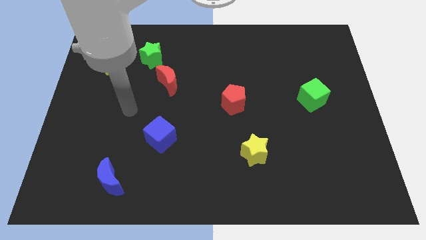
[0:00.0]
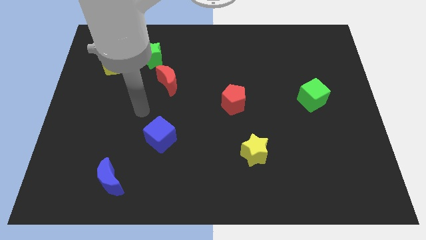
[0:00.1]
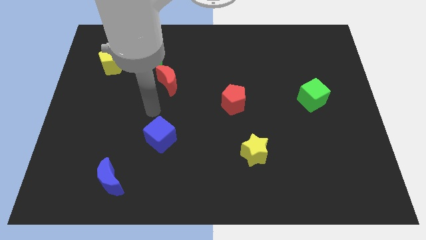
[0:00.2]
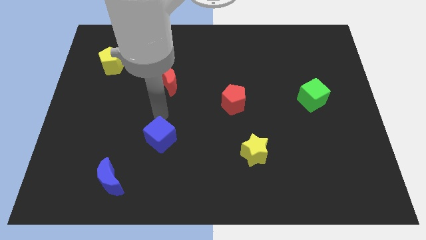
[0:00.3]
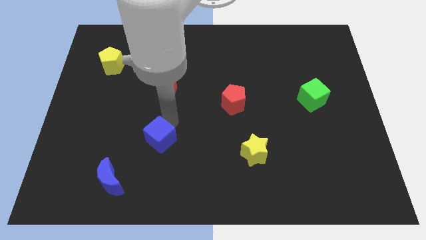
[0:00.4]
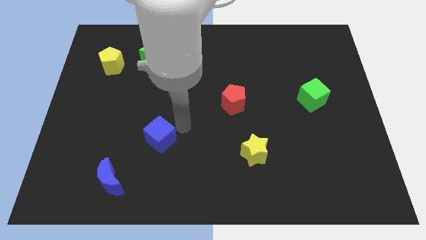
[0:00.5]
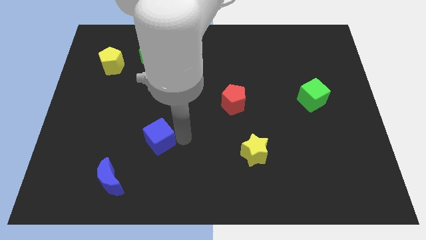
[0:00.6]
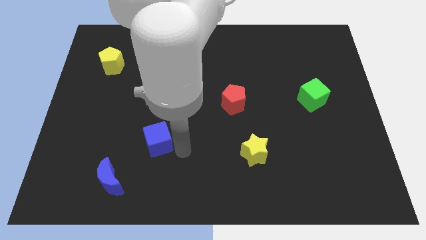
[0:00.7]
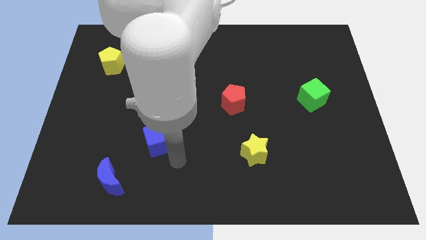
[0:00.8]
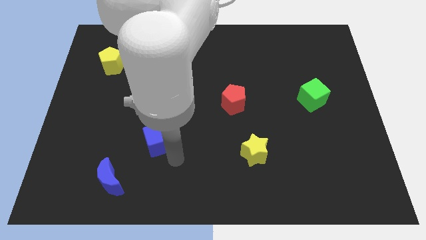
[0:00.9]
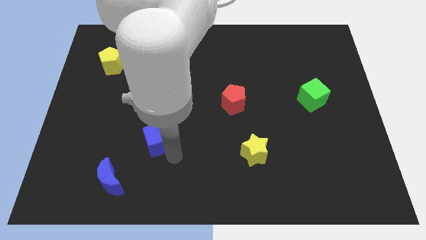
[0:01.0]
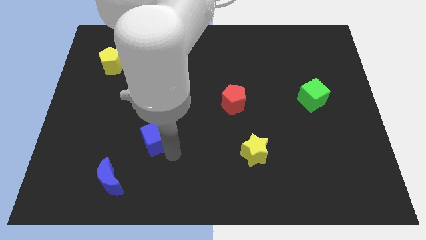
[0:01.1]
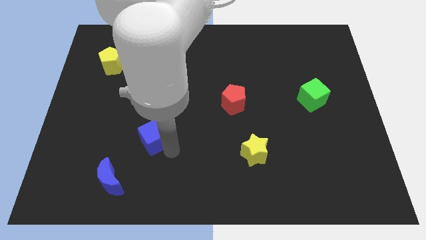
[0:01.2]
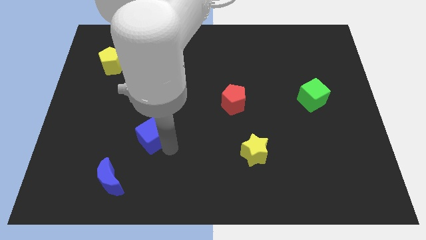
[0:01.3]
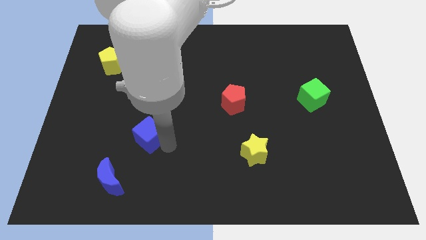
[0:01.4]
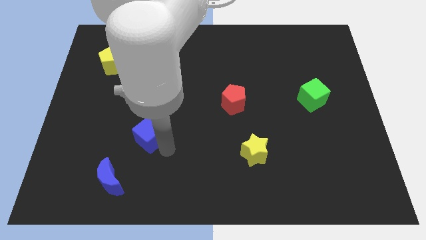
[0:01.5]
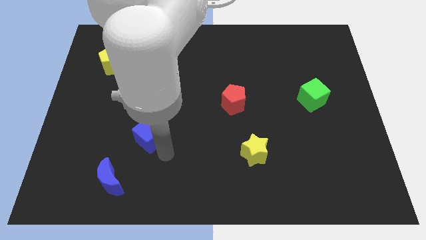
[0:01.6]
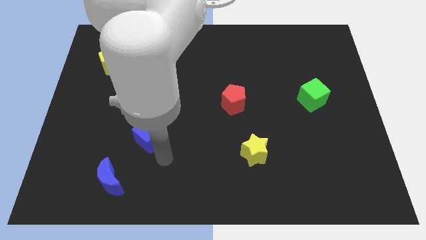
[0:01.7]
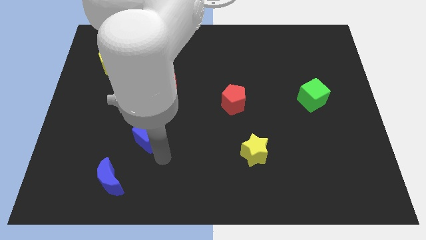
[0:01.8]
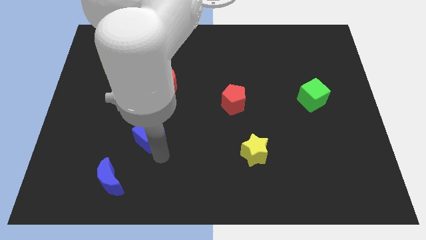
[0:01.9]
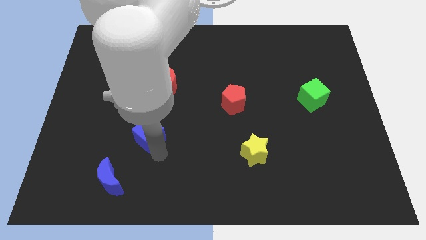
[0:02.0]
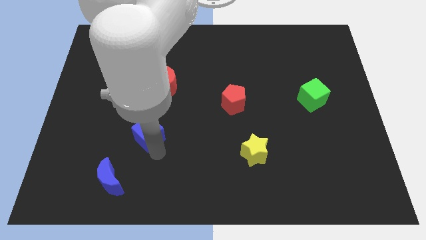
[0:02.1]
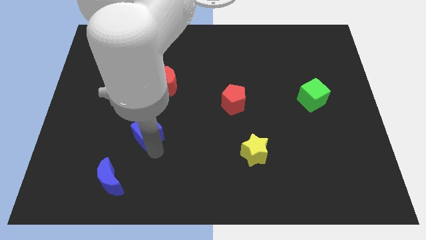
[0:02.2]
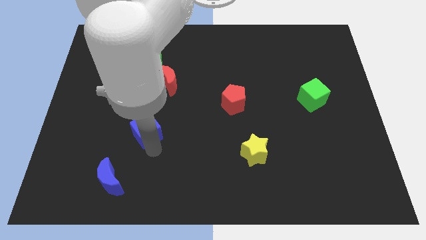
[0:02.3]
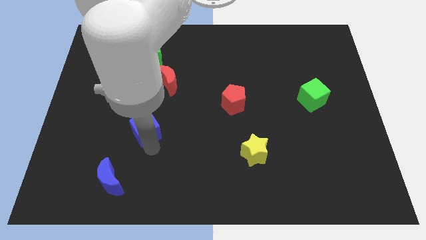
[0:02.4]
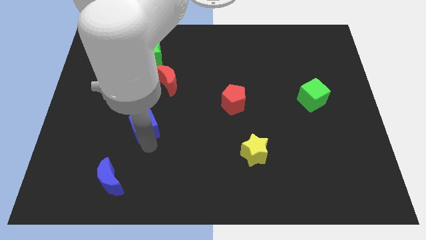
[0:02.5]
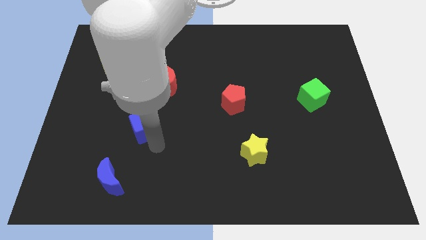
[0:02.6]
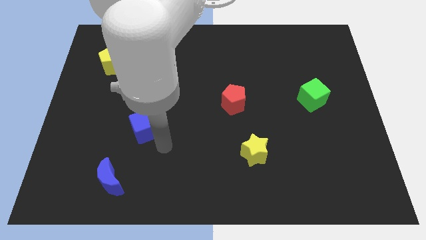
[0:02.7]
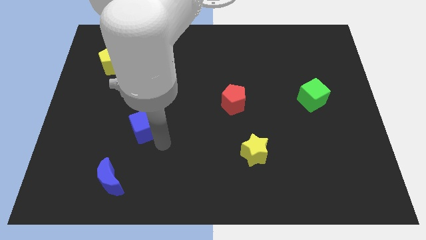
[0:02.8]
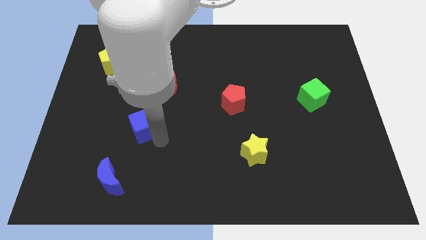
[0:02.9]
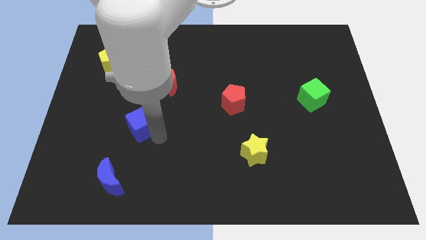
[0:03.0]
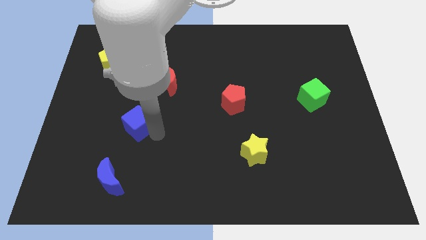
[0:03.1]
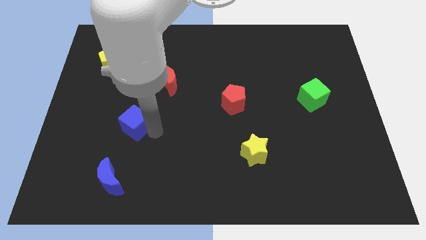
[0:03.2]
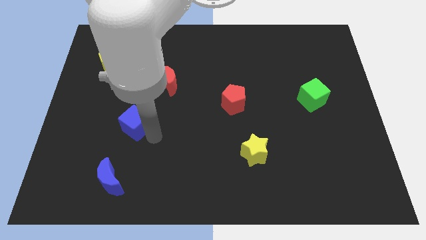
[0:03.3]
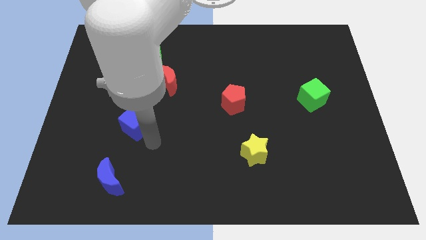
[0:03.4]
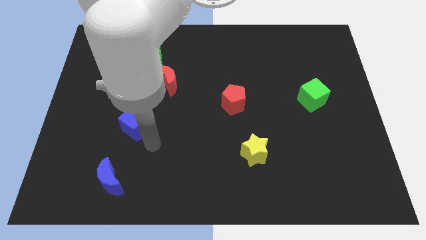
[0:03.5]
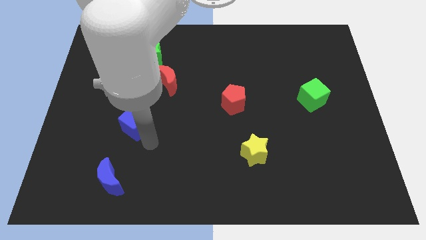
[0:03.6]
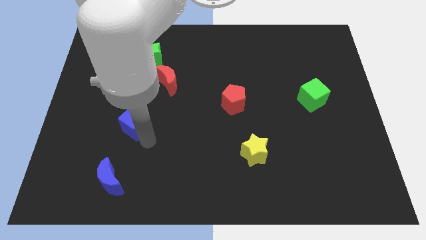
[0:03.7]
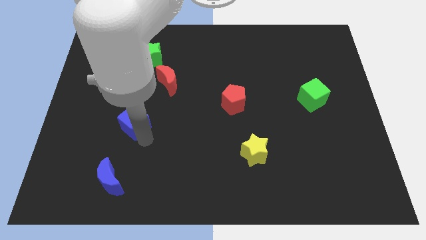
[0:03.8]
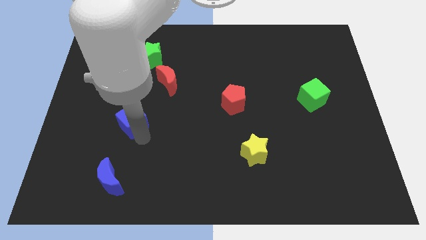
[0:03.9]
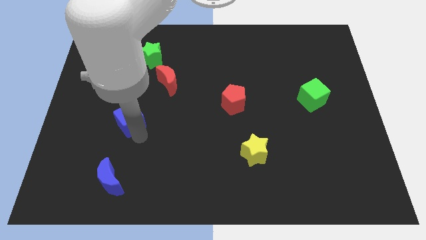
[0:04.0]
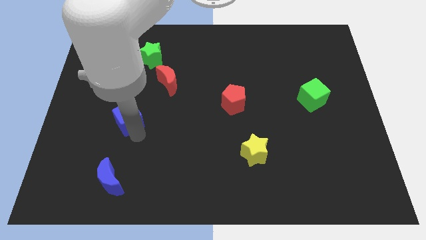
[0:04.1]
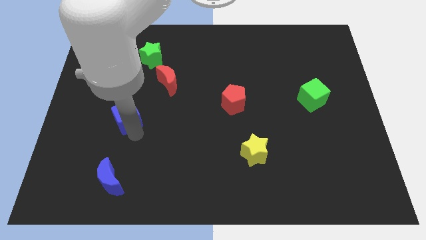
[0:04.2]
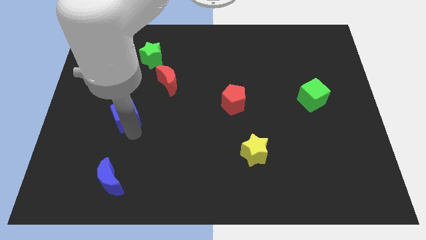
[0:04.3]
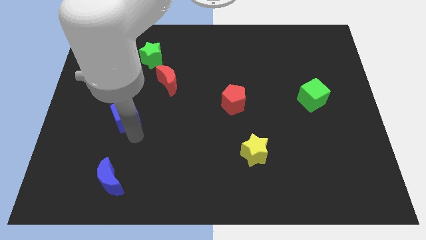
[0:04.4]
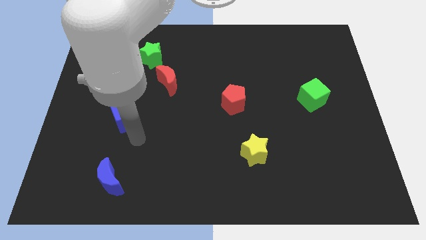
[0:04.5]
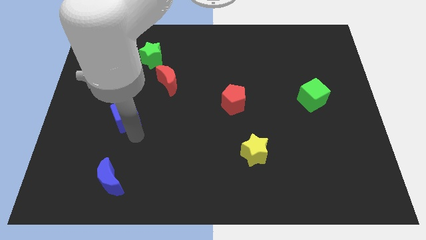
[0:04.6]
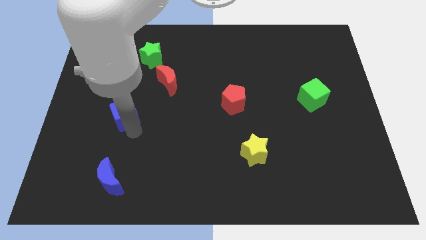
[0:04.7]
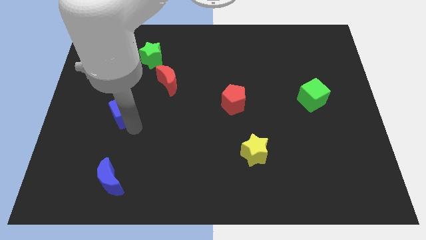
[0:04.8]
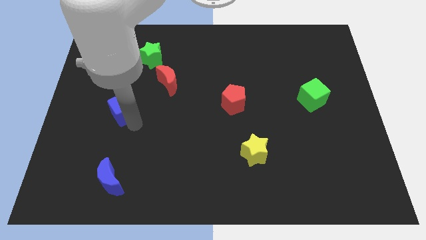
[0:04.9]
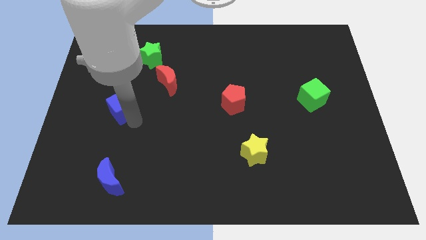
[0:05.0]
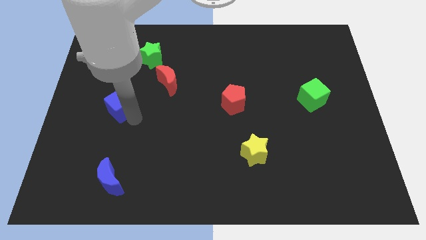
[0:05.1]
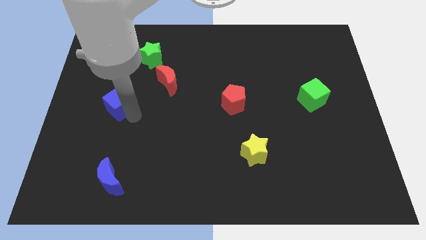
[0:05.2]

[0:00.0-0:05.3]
push the blue cube below the yellow pentagon

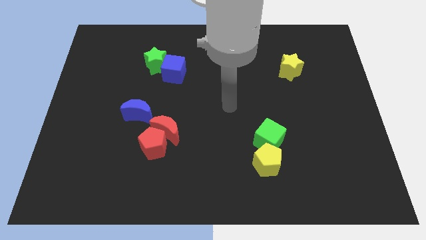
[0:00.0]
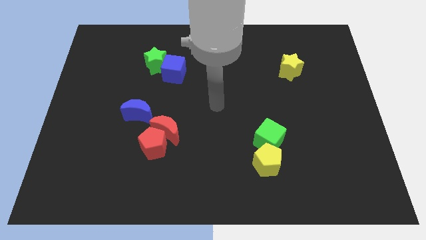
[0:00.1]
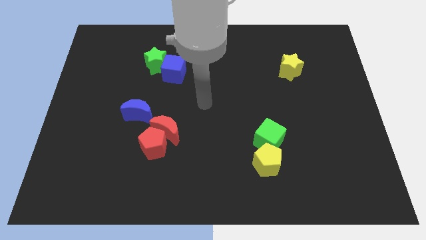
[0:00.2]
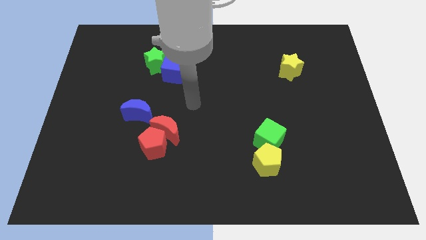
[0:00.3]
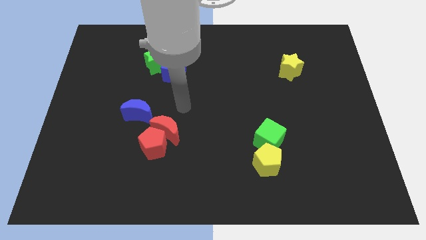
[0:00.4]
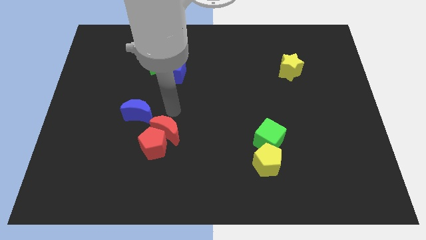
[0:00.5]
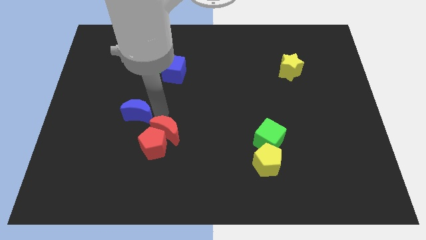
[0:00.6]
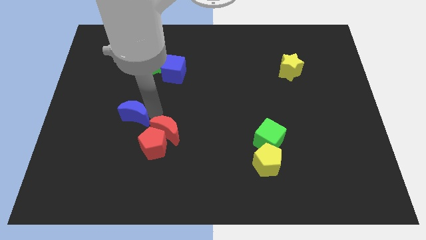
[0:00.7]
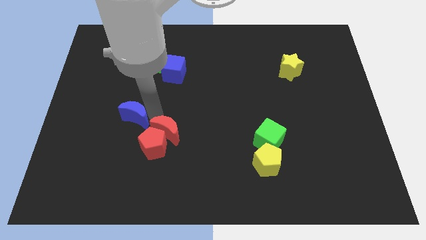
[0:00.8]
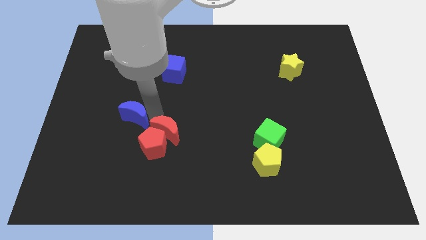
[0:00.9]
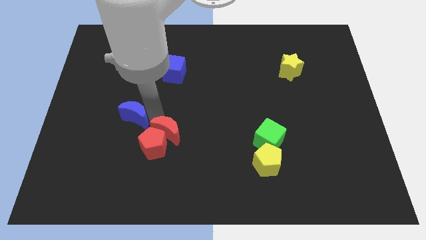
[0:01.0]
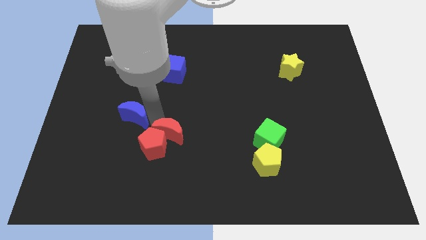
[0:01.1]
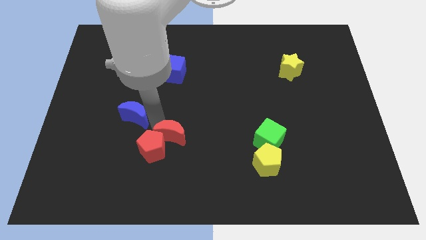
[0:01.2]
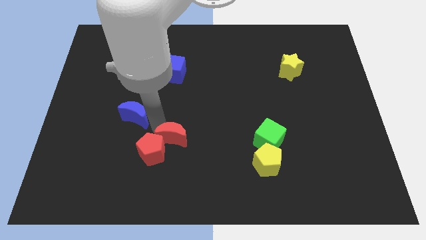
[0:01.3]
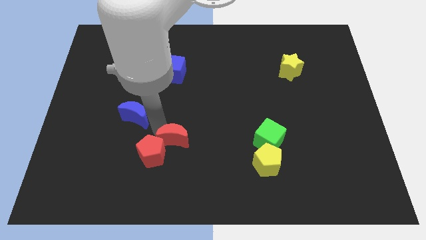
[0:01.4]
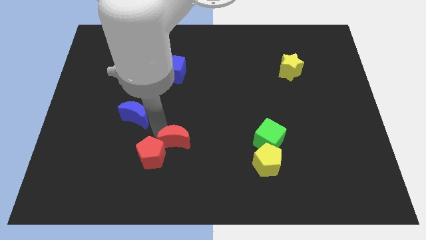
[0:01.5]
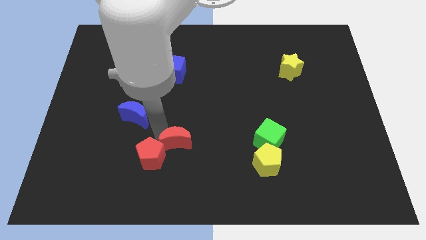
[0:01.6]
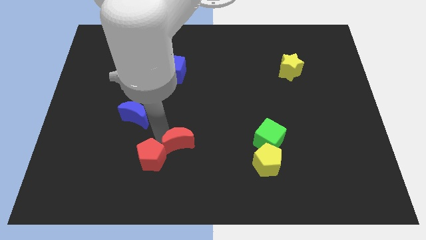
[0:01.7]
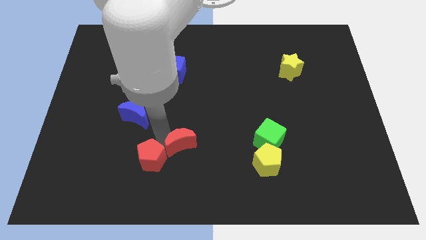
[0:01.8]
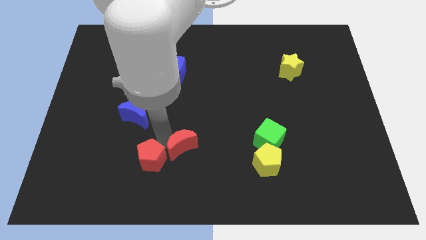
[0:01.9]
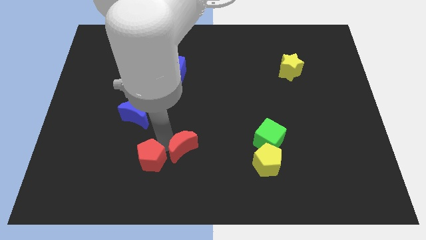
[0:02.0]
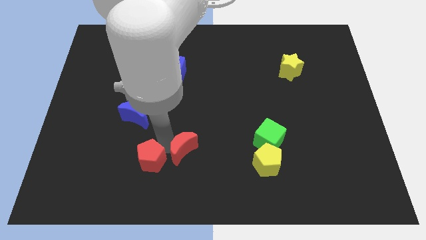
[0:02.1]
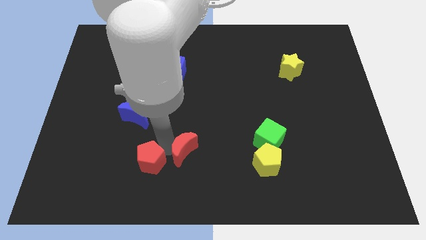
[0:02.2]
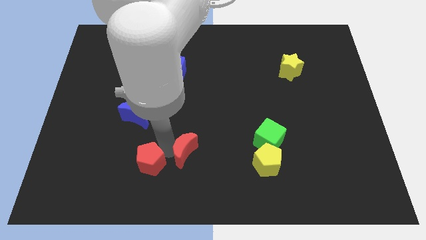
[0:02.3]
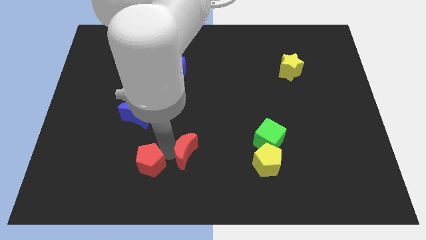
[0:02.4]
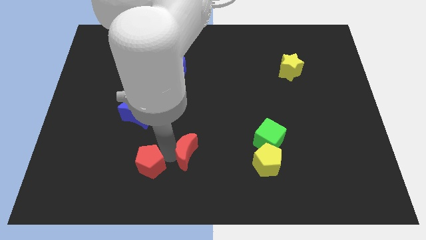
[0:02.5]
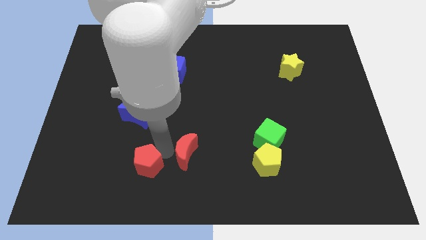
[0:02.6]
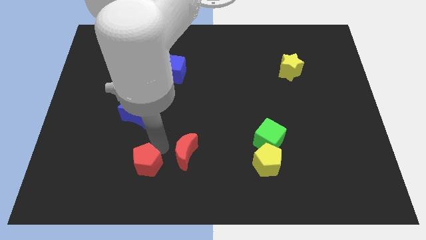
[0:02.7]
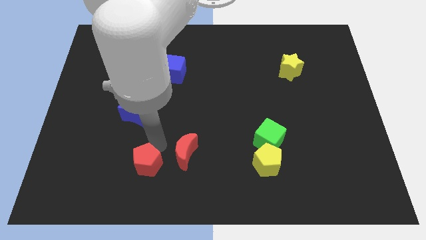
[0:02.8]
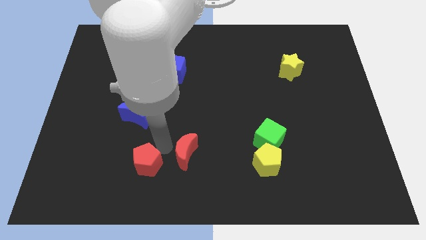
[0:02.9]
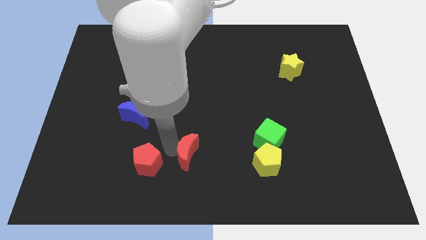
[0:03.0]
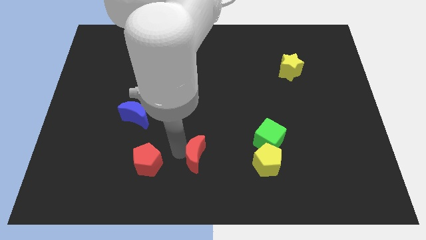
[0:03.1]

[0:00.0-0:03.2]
move the red moon just left of the yellow pentagon
